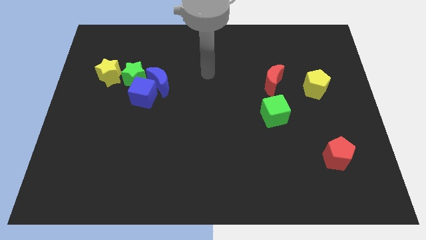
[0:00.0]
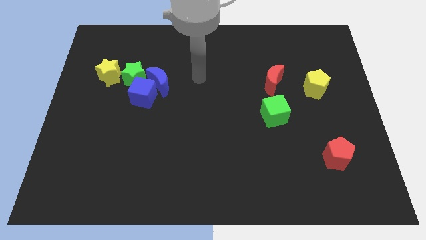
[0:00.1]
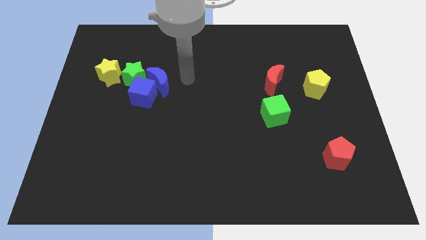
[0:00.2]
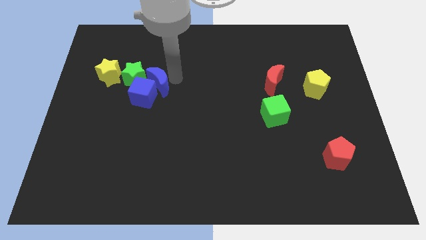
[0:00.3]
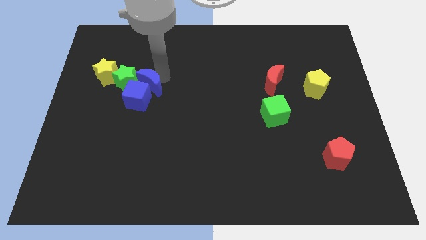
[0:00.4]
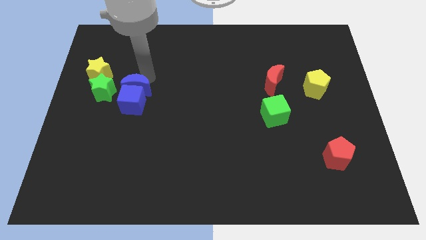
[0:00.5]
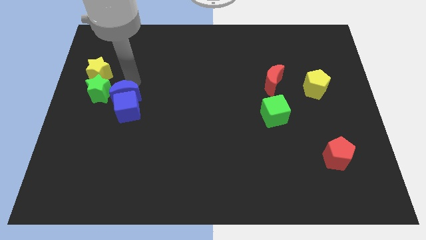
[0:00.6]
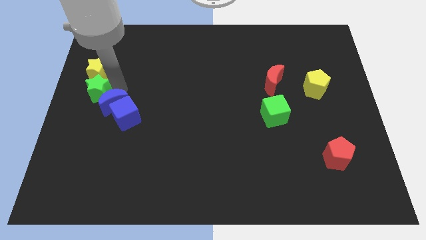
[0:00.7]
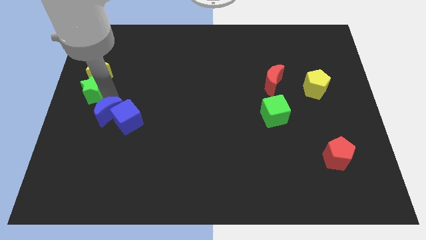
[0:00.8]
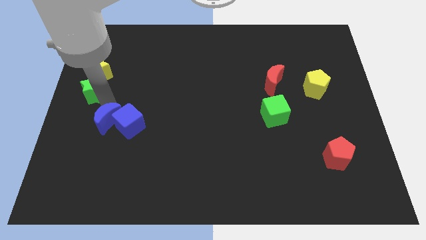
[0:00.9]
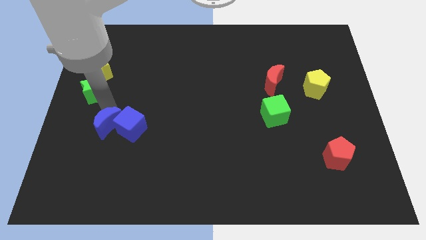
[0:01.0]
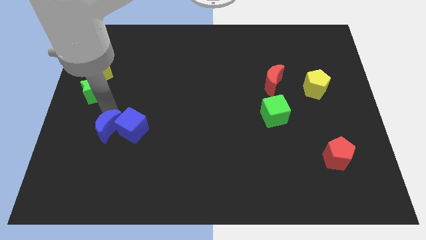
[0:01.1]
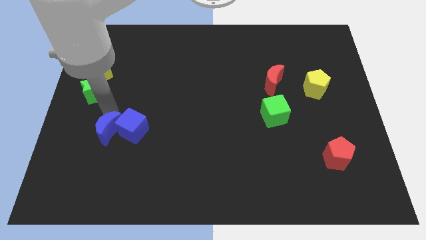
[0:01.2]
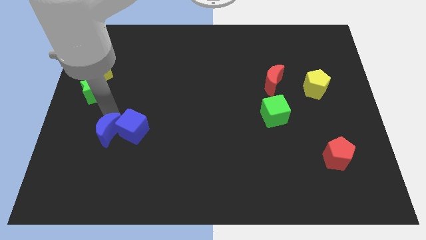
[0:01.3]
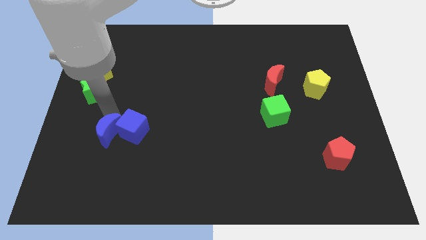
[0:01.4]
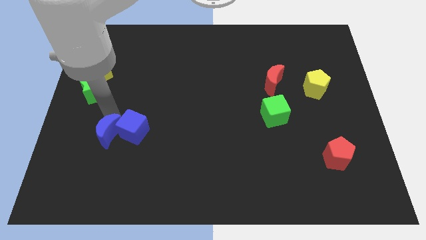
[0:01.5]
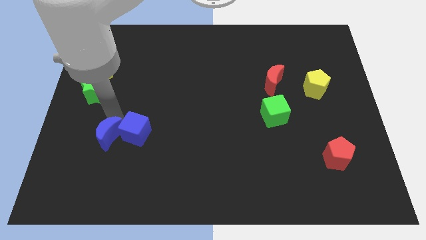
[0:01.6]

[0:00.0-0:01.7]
separate the blue cube from the blue moon and green star

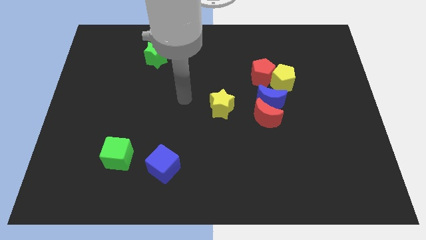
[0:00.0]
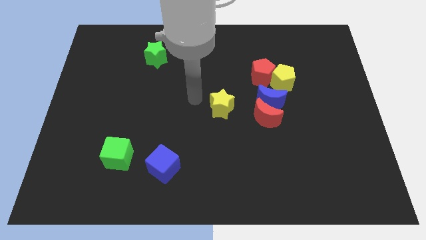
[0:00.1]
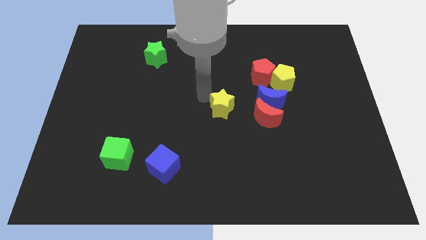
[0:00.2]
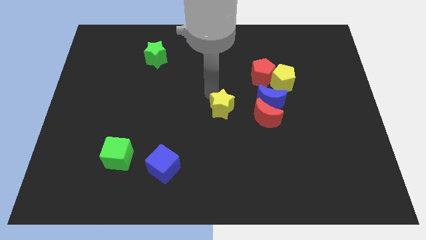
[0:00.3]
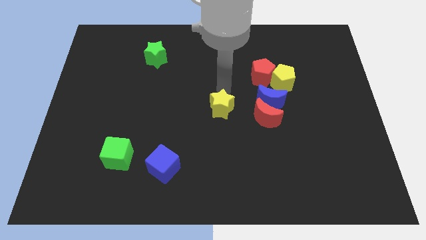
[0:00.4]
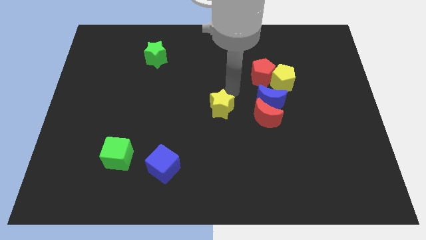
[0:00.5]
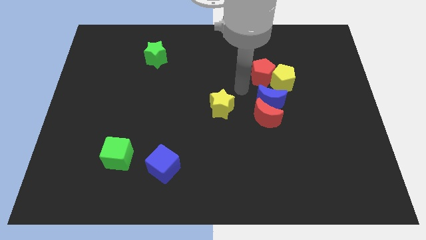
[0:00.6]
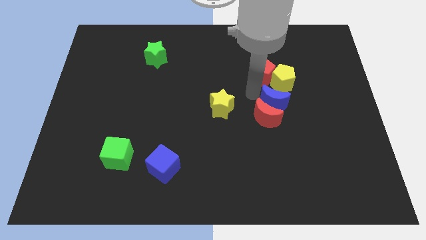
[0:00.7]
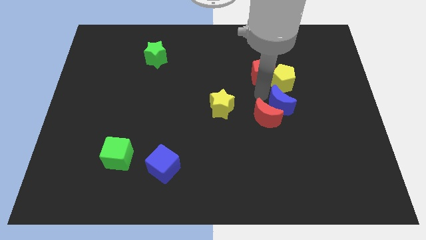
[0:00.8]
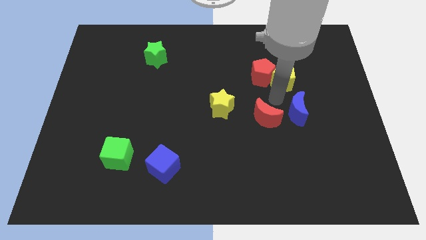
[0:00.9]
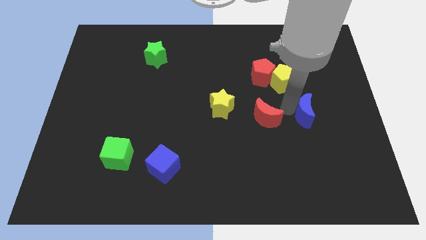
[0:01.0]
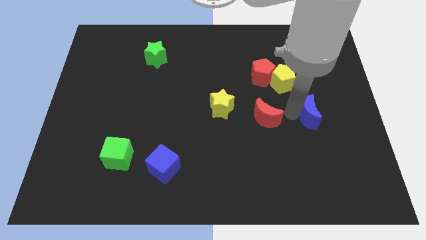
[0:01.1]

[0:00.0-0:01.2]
move the red moon away from the blue moon

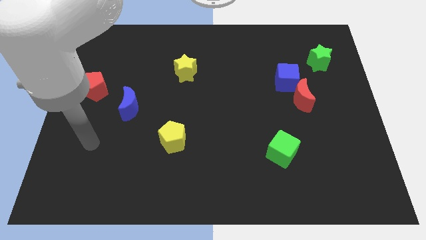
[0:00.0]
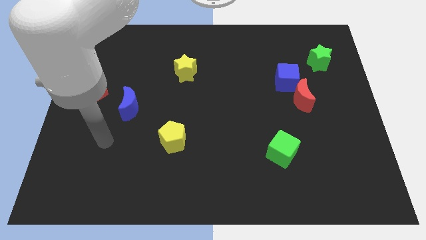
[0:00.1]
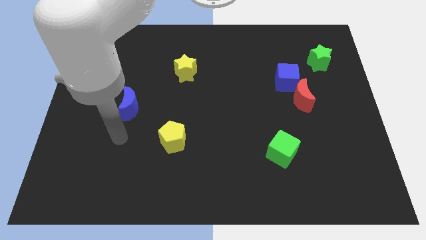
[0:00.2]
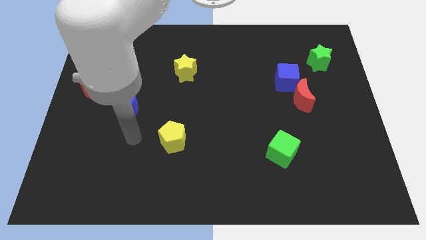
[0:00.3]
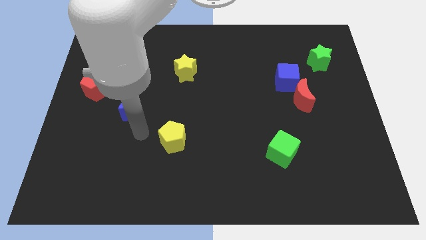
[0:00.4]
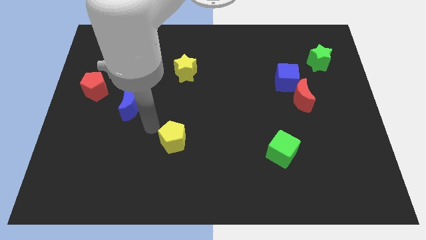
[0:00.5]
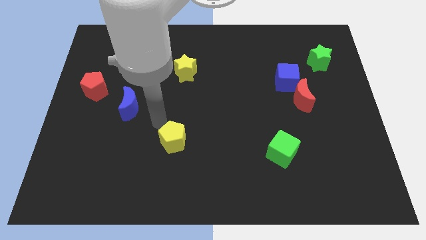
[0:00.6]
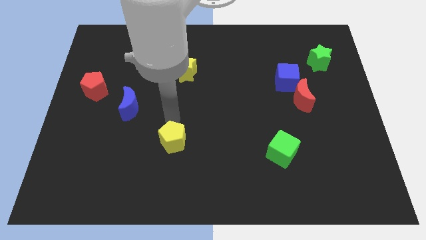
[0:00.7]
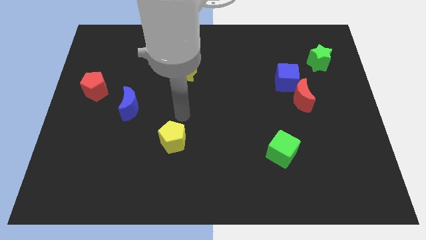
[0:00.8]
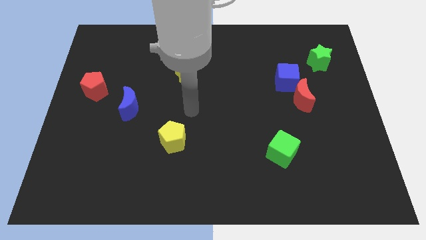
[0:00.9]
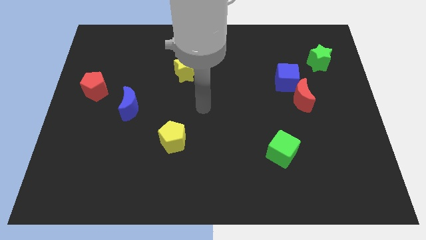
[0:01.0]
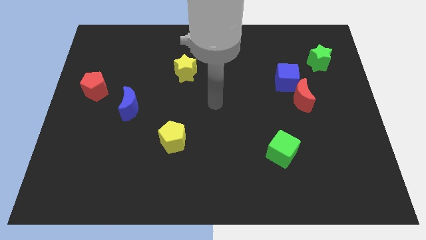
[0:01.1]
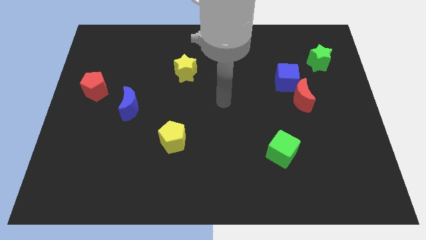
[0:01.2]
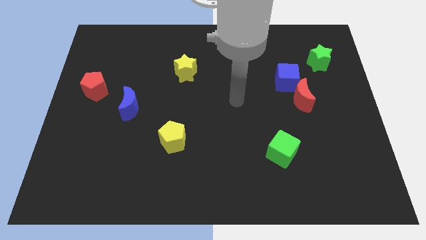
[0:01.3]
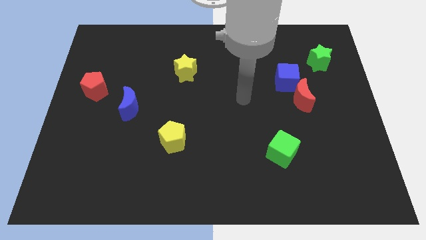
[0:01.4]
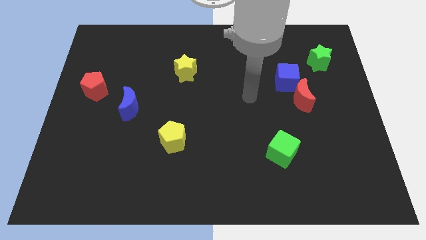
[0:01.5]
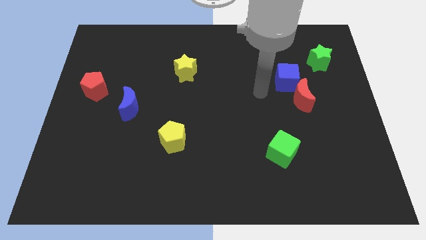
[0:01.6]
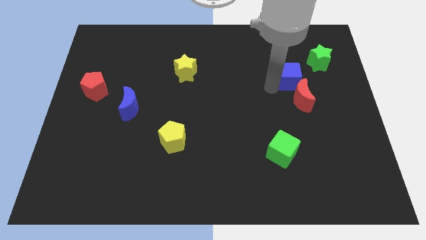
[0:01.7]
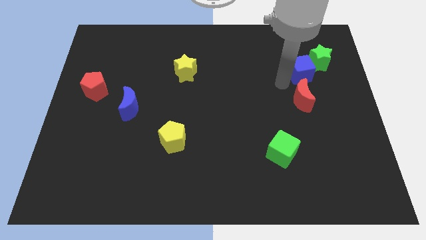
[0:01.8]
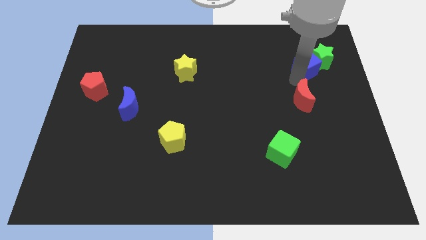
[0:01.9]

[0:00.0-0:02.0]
move the red moon away from the blue cube

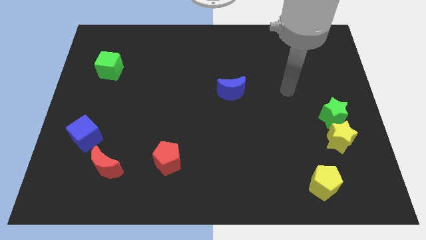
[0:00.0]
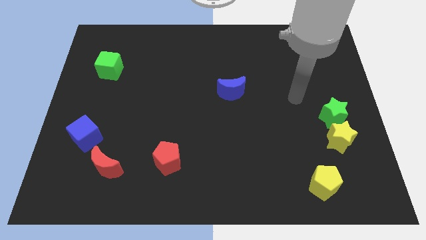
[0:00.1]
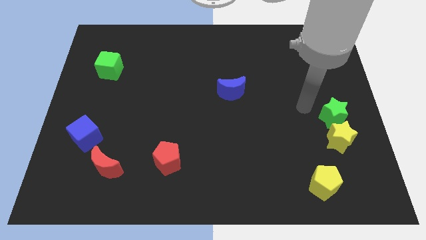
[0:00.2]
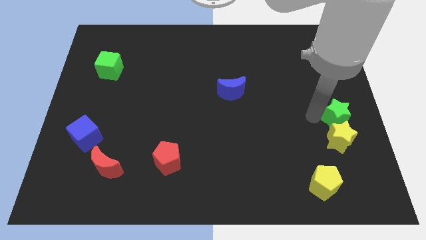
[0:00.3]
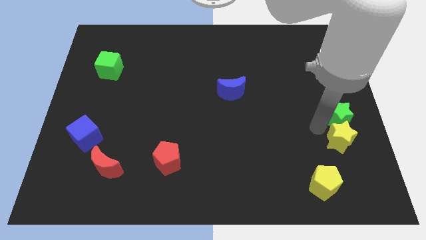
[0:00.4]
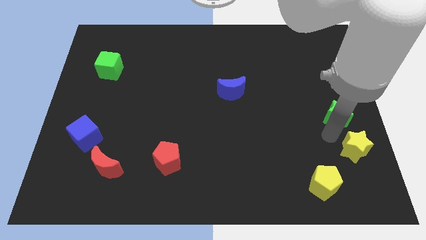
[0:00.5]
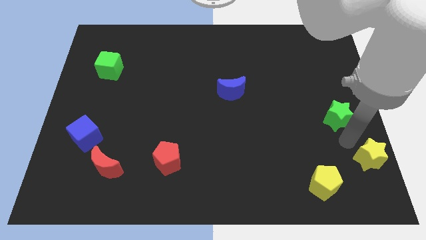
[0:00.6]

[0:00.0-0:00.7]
separate the green star from the yellow star

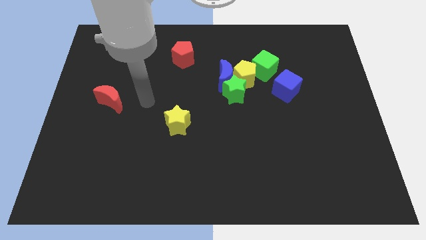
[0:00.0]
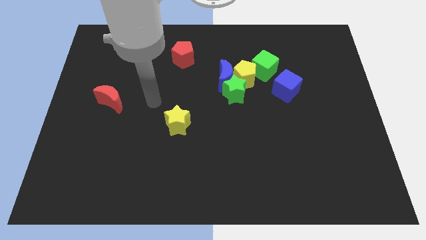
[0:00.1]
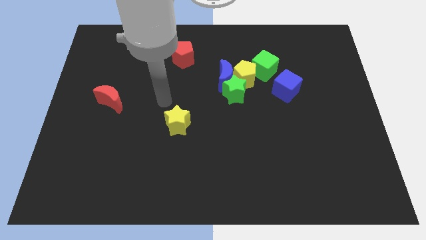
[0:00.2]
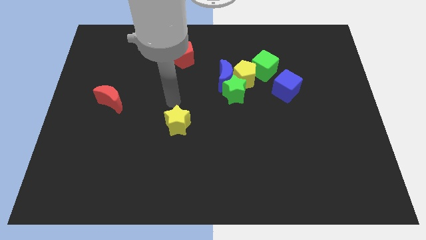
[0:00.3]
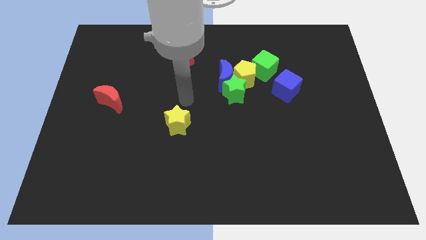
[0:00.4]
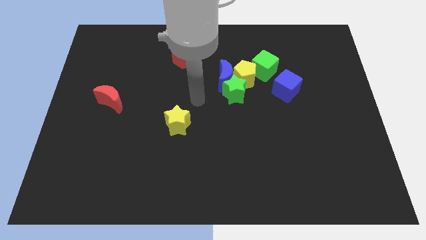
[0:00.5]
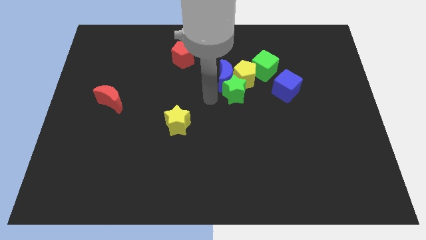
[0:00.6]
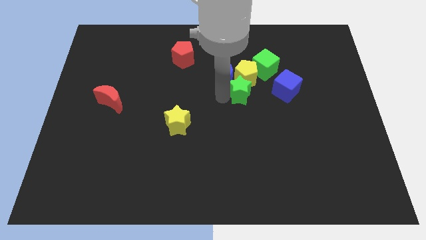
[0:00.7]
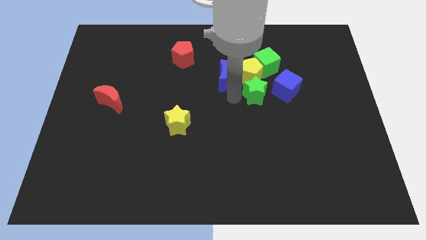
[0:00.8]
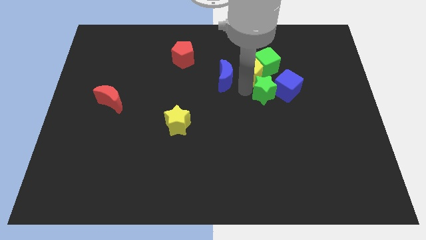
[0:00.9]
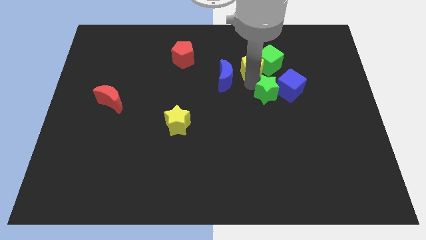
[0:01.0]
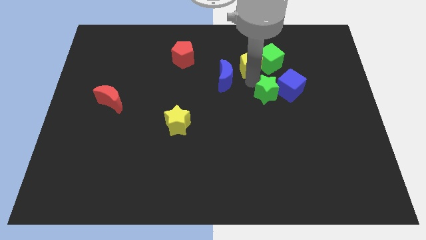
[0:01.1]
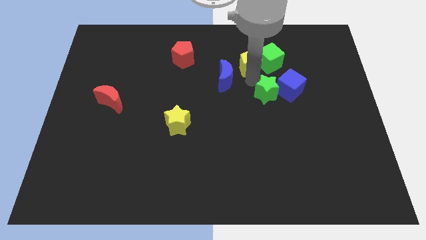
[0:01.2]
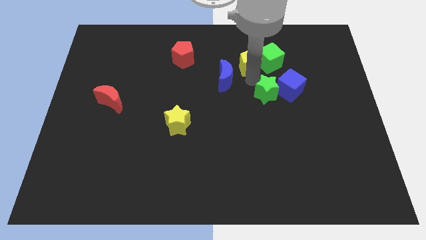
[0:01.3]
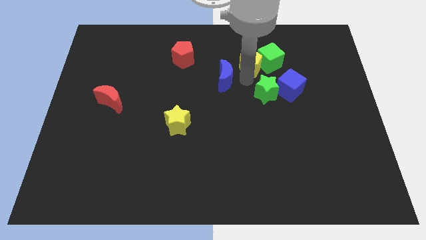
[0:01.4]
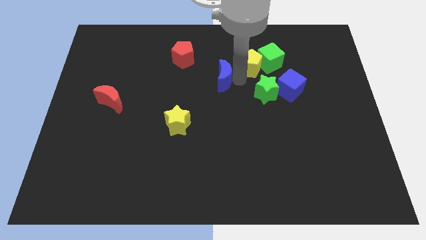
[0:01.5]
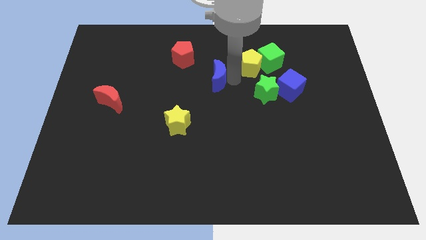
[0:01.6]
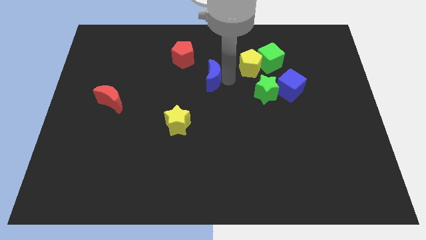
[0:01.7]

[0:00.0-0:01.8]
separate the blue moon from the yellow pentagon and green star

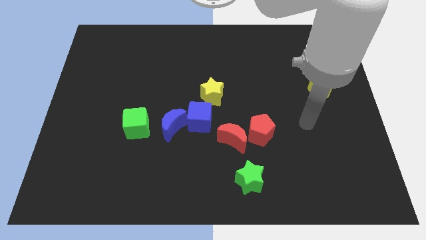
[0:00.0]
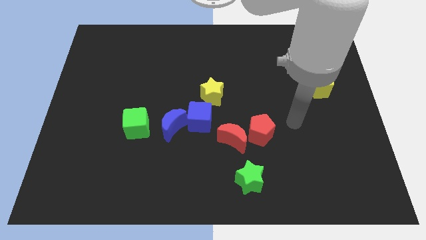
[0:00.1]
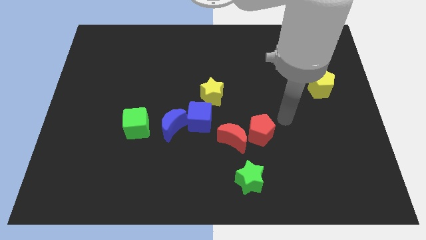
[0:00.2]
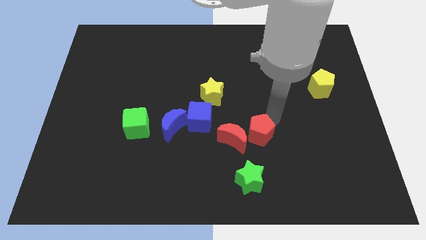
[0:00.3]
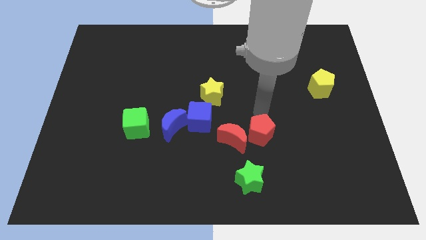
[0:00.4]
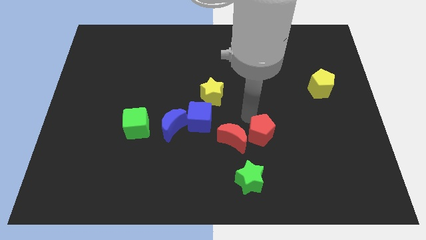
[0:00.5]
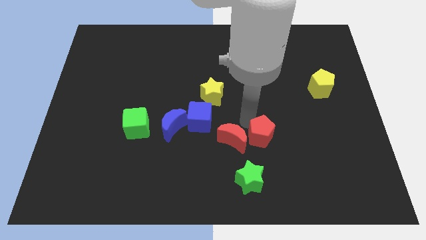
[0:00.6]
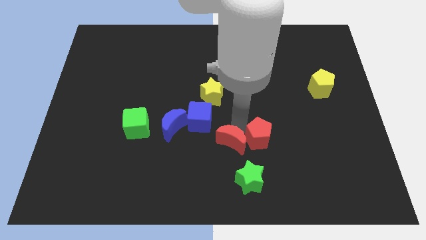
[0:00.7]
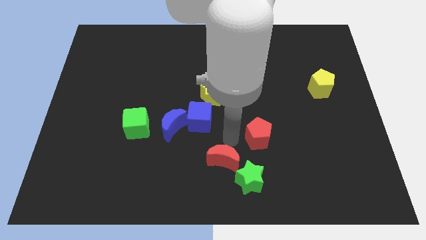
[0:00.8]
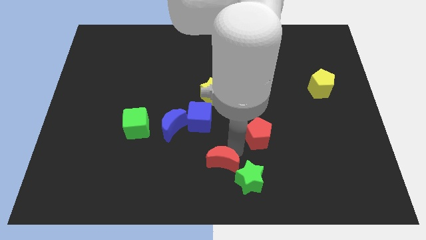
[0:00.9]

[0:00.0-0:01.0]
move the red pentagon away from the red moon

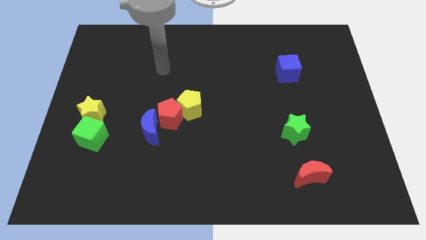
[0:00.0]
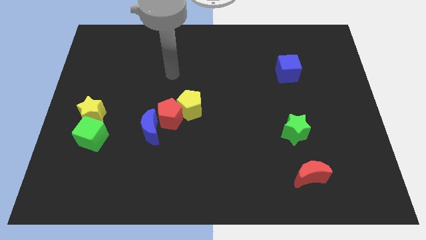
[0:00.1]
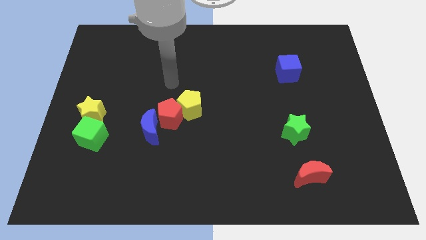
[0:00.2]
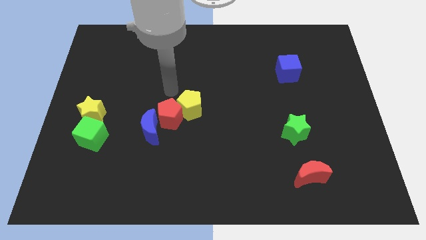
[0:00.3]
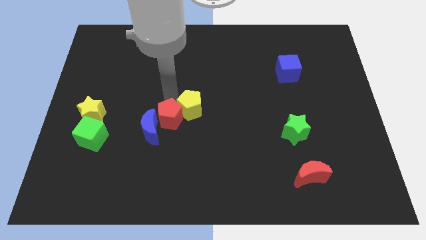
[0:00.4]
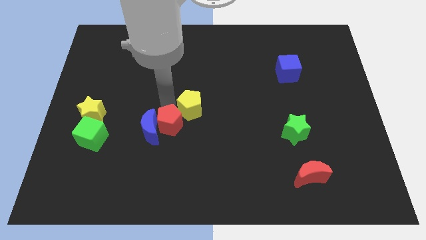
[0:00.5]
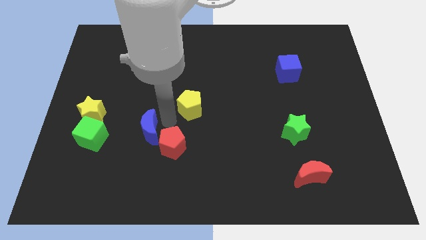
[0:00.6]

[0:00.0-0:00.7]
move the yellow pentagon away from the red pentagon

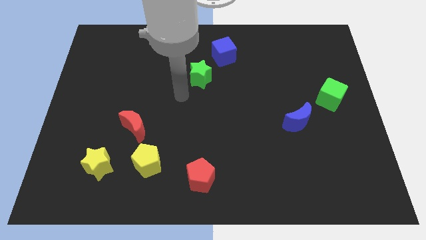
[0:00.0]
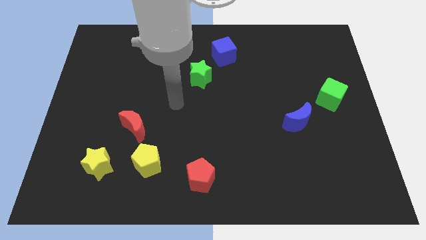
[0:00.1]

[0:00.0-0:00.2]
move the red moon away from the yellow pentagon
